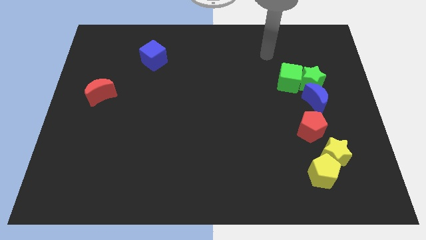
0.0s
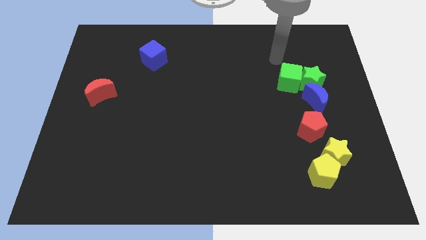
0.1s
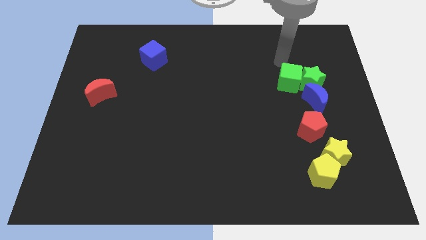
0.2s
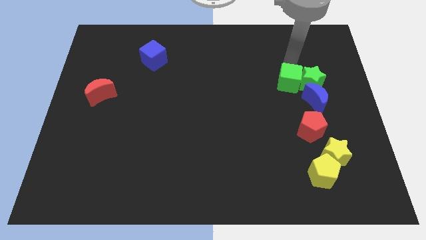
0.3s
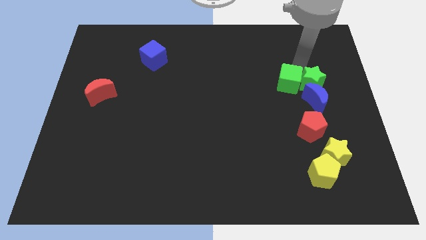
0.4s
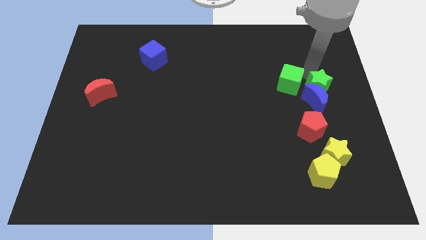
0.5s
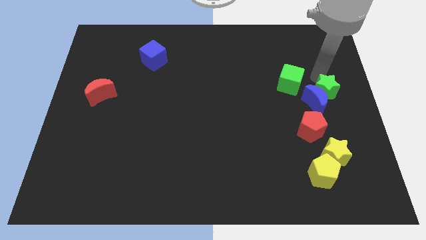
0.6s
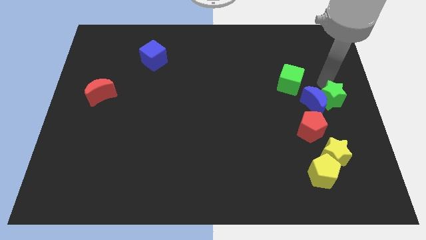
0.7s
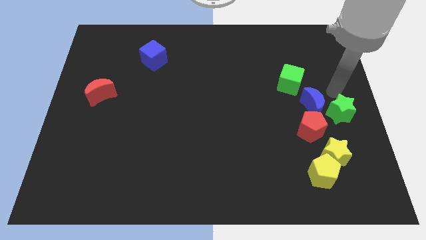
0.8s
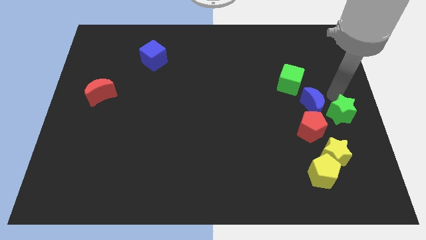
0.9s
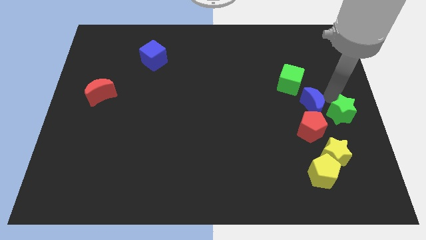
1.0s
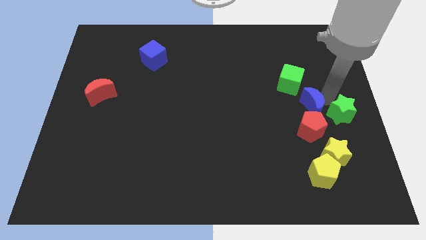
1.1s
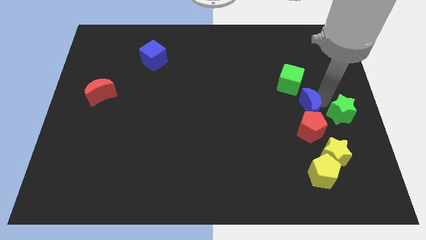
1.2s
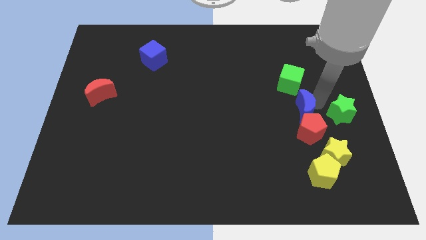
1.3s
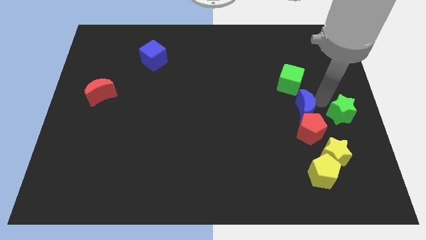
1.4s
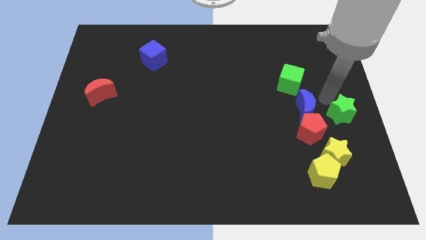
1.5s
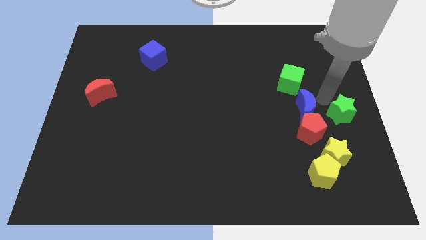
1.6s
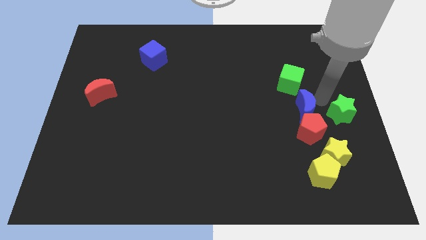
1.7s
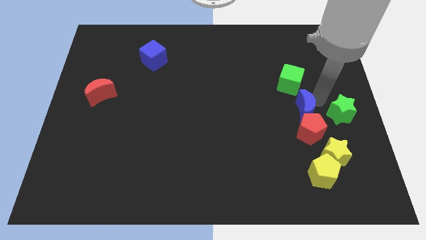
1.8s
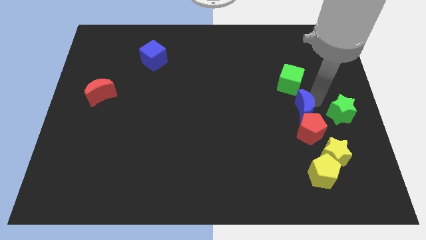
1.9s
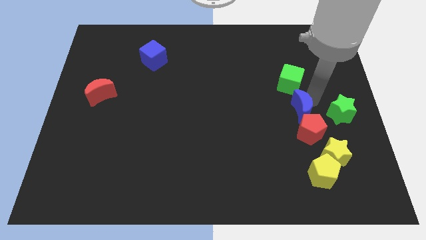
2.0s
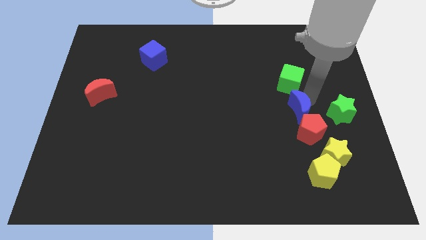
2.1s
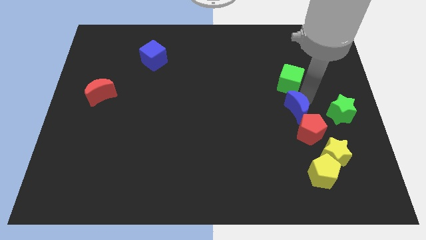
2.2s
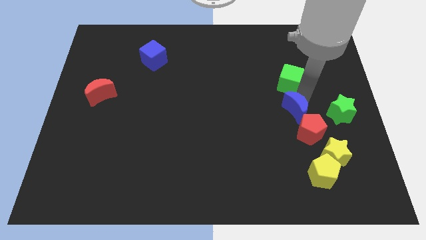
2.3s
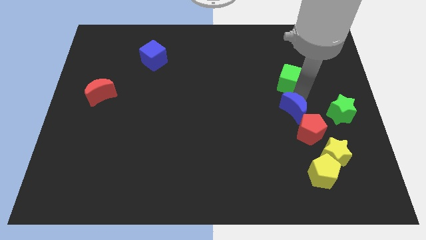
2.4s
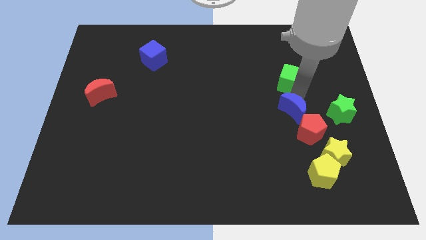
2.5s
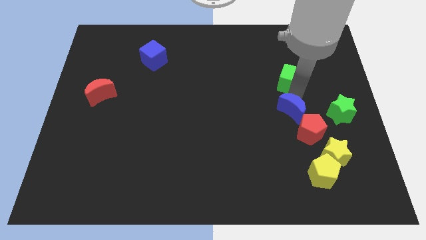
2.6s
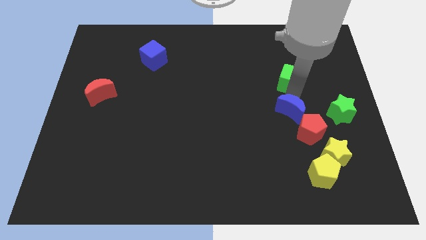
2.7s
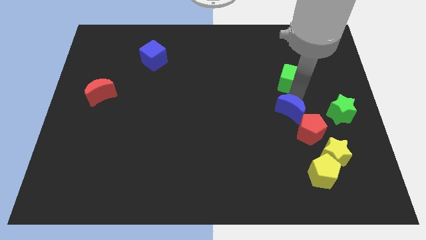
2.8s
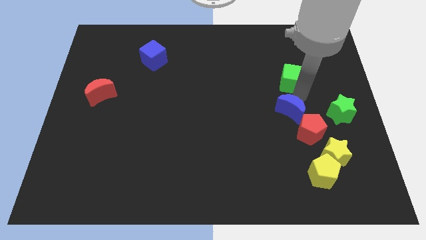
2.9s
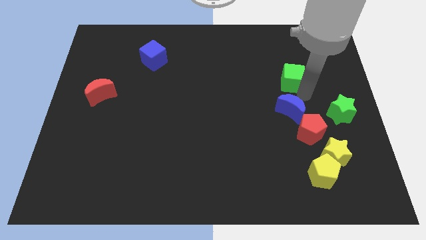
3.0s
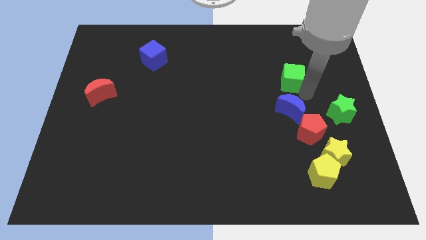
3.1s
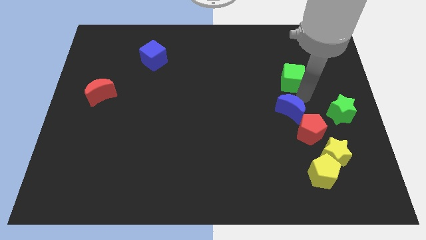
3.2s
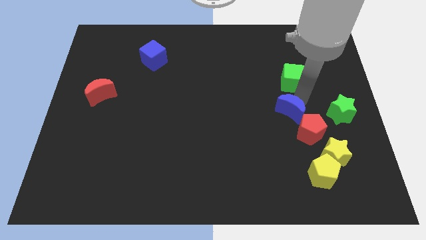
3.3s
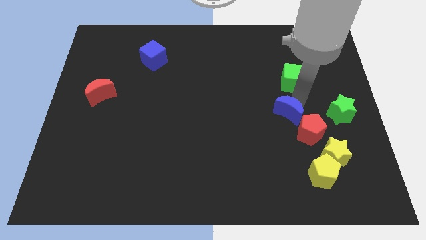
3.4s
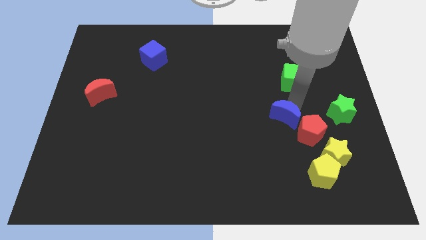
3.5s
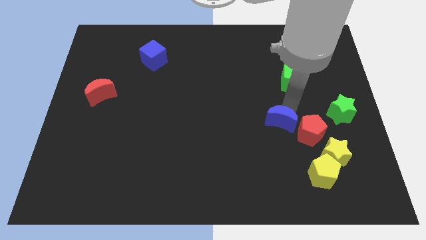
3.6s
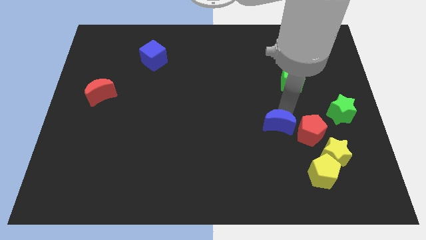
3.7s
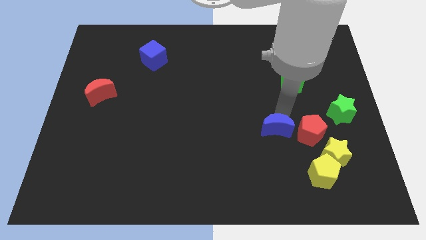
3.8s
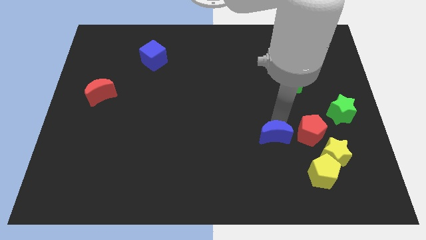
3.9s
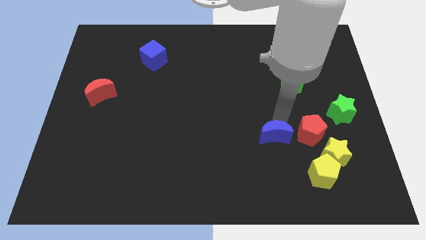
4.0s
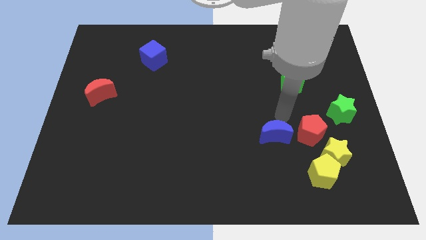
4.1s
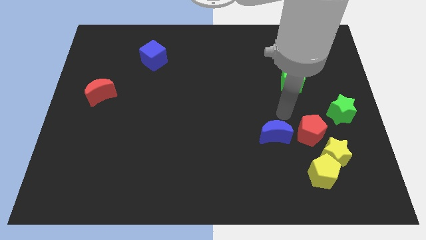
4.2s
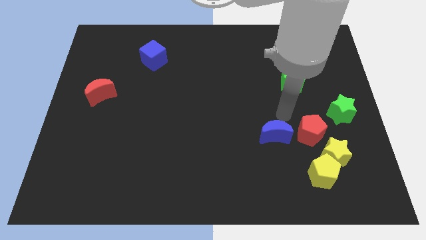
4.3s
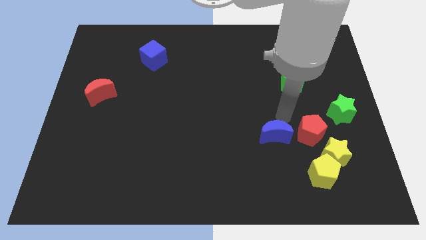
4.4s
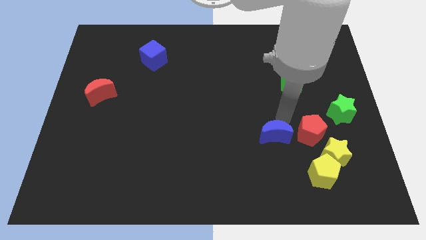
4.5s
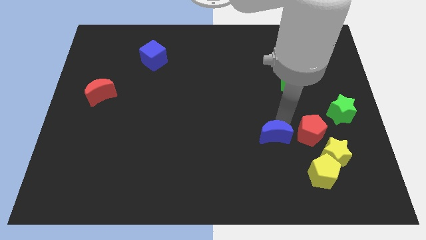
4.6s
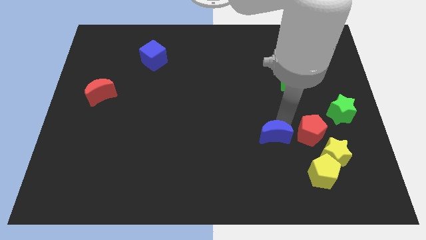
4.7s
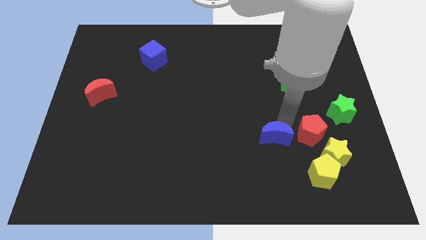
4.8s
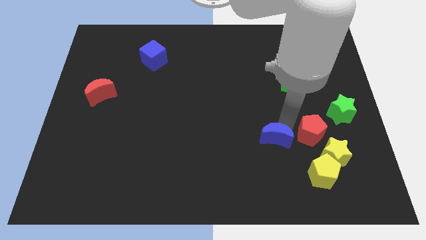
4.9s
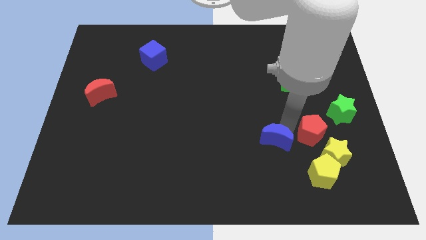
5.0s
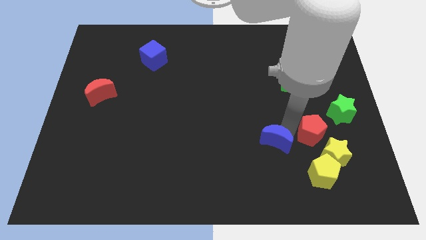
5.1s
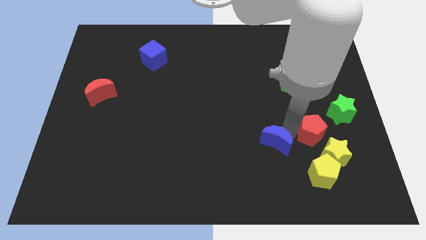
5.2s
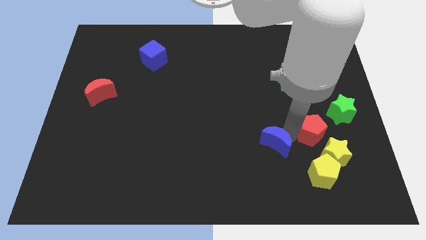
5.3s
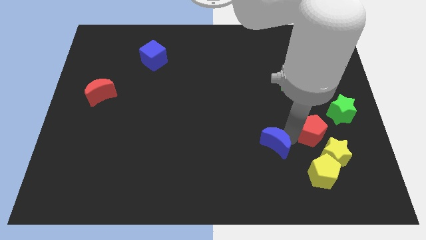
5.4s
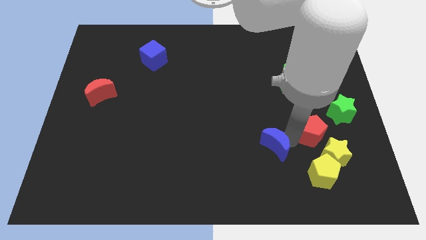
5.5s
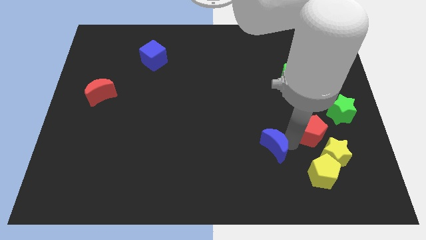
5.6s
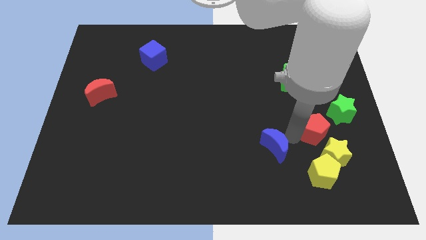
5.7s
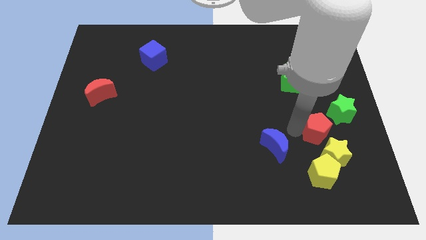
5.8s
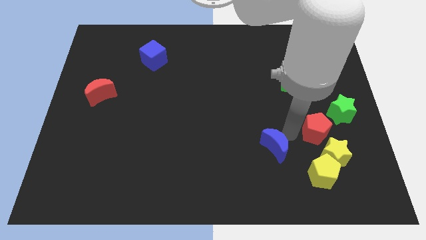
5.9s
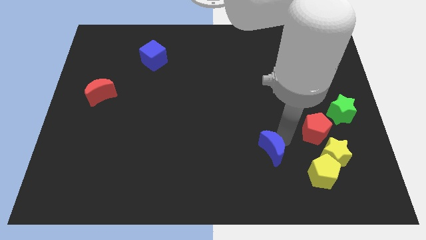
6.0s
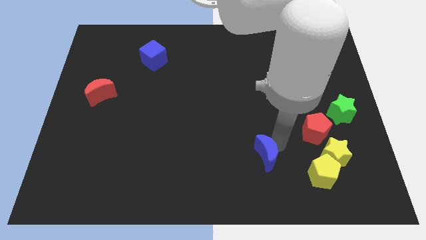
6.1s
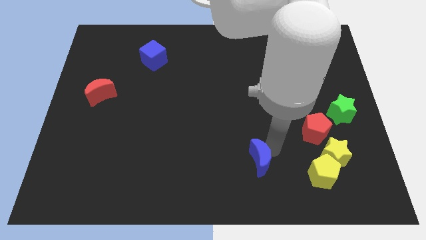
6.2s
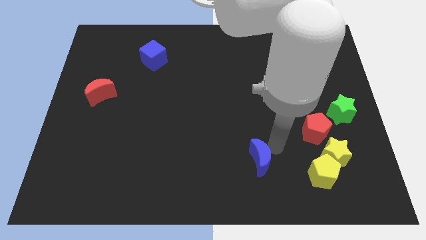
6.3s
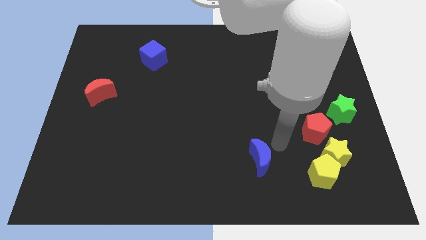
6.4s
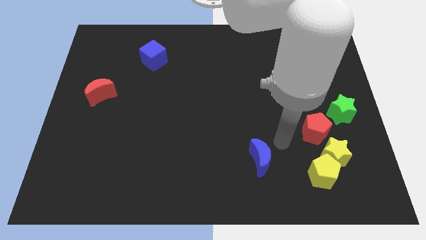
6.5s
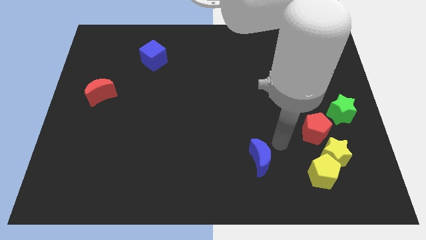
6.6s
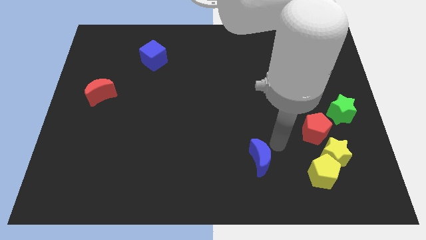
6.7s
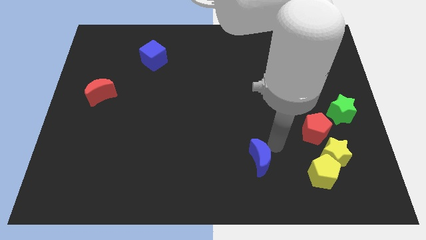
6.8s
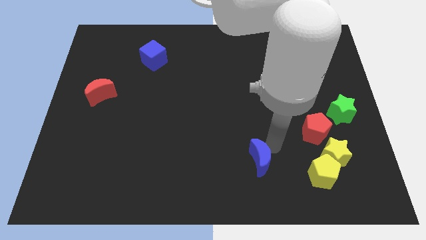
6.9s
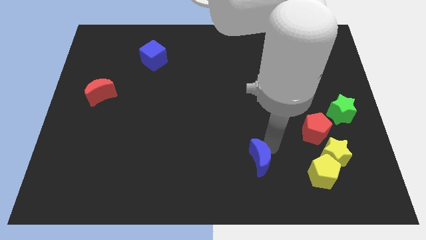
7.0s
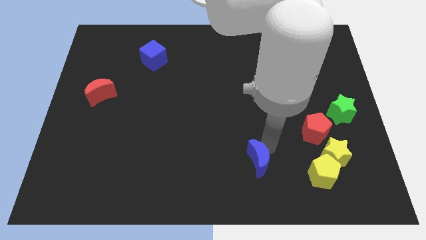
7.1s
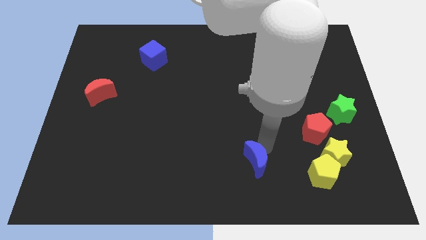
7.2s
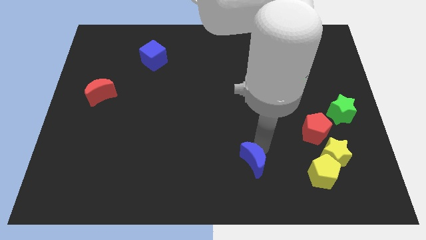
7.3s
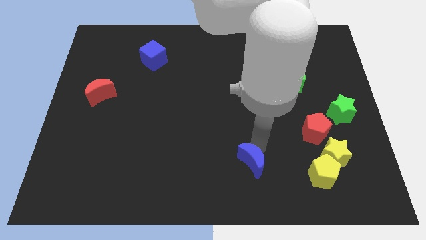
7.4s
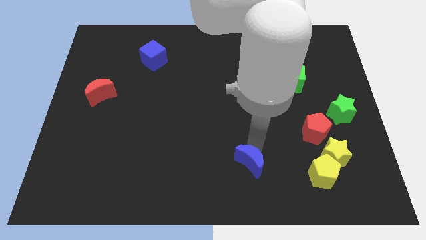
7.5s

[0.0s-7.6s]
move the blue moon to the bottom
